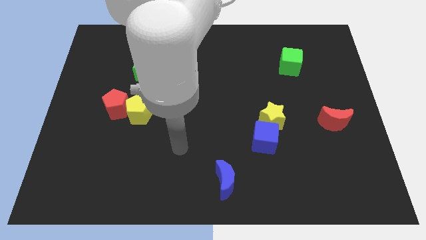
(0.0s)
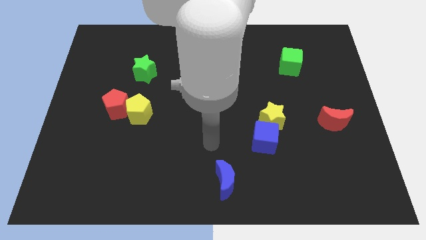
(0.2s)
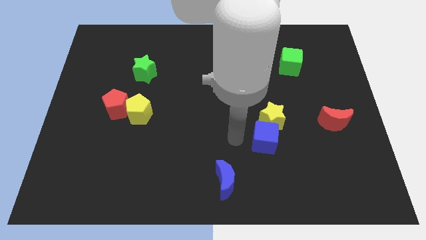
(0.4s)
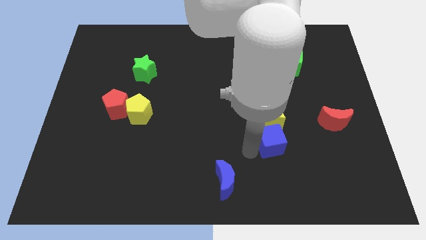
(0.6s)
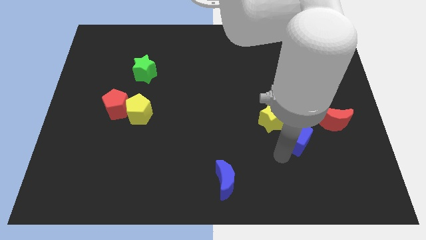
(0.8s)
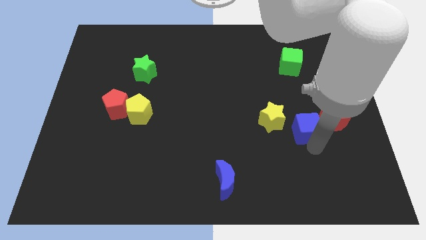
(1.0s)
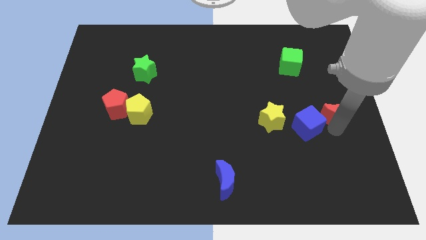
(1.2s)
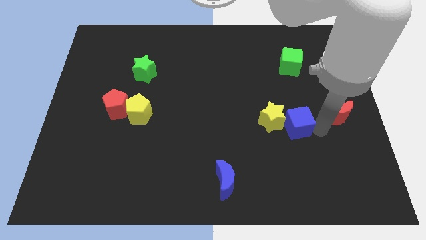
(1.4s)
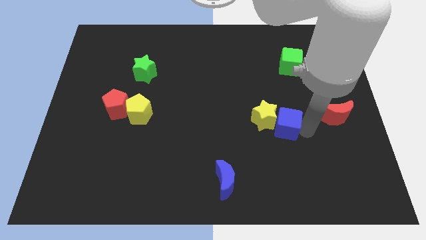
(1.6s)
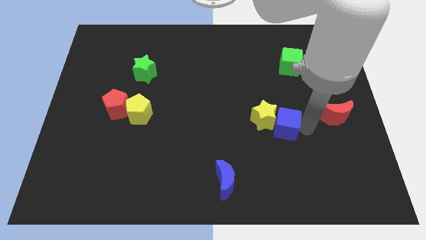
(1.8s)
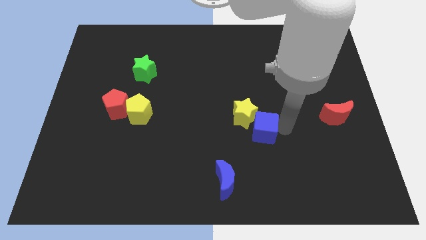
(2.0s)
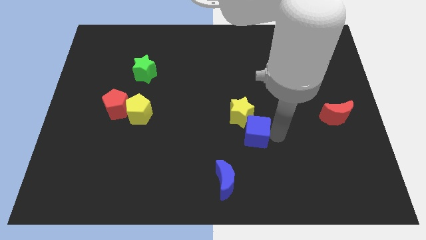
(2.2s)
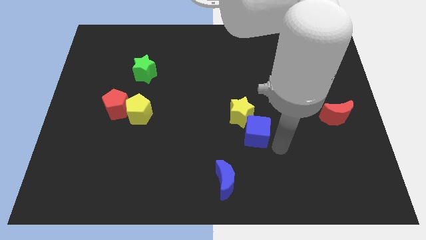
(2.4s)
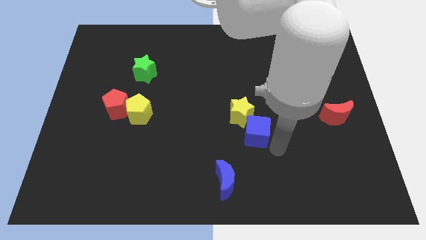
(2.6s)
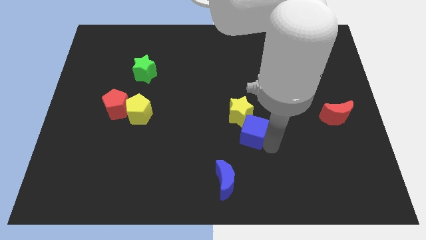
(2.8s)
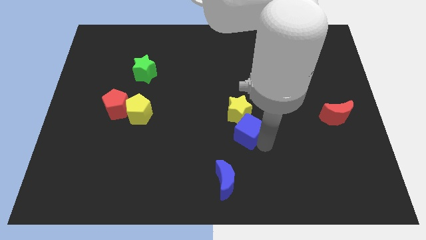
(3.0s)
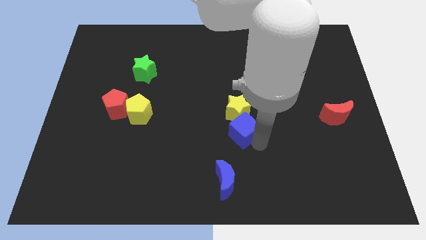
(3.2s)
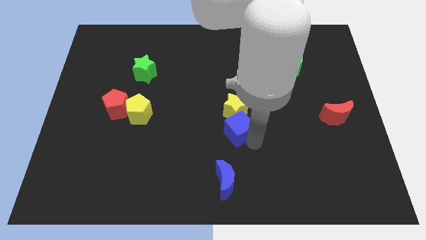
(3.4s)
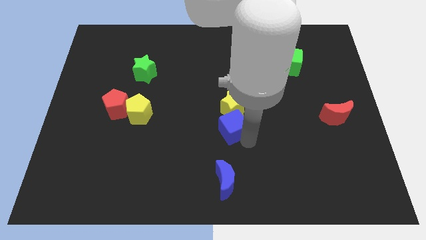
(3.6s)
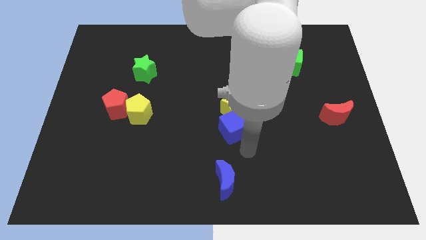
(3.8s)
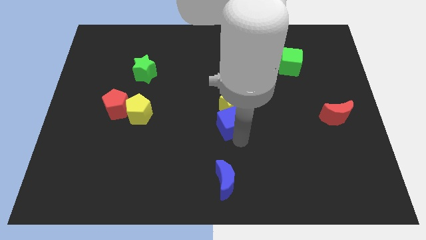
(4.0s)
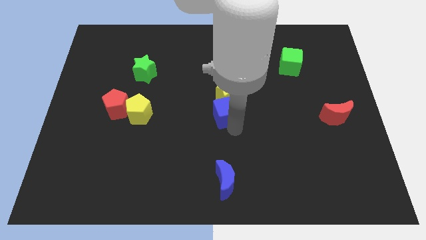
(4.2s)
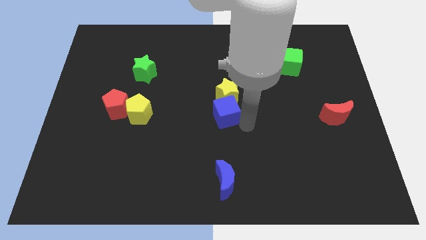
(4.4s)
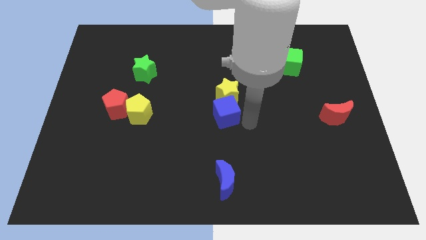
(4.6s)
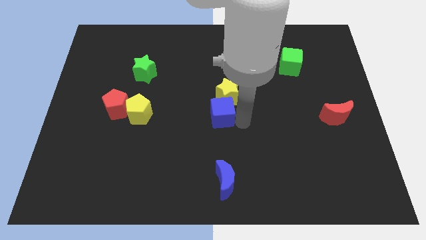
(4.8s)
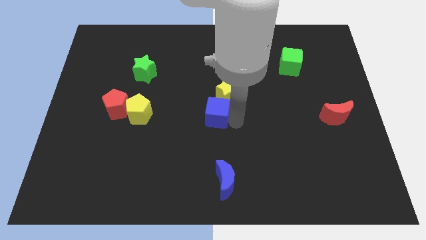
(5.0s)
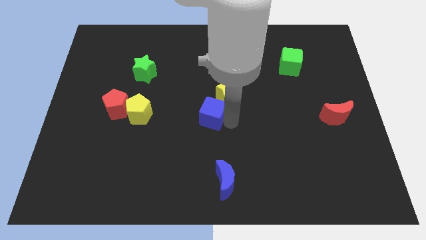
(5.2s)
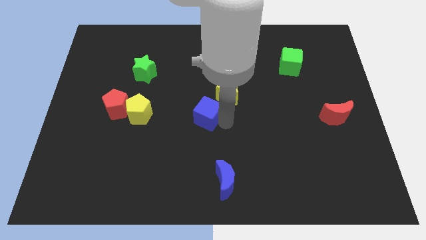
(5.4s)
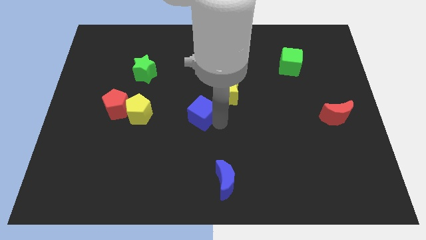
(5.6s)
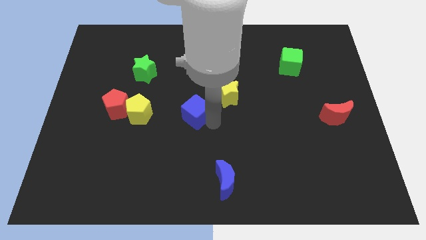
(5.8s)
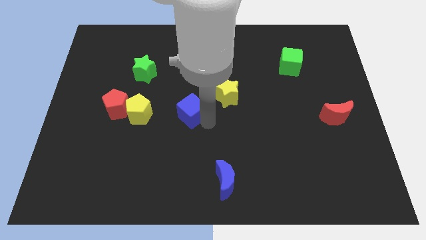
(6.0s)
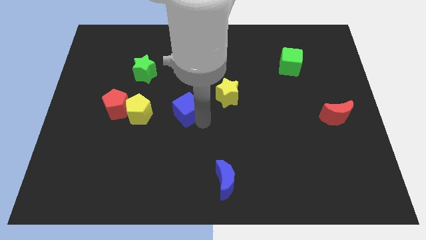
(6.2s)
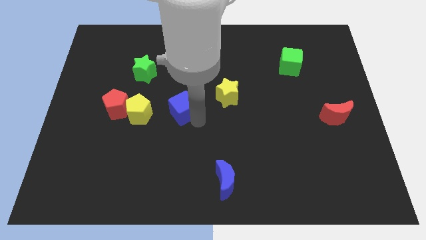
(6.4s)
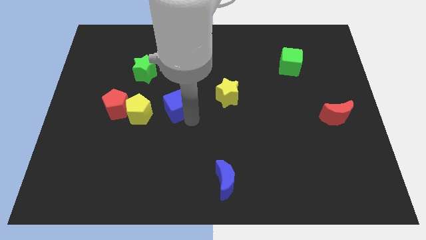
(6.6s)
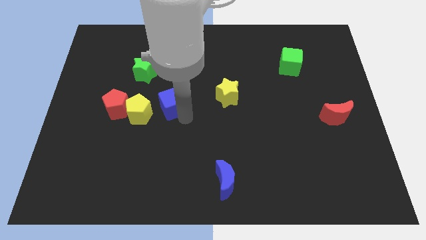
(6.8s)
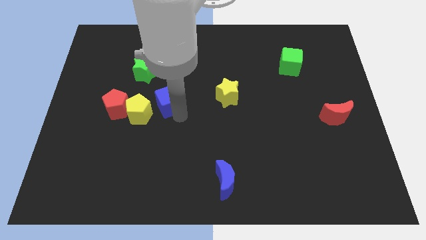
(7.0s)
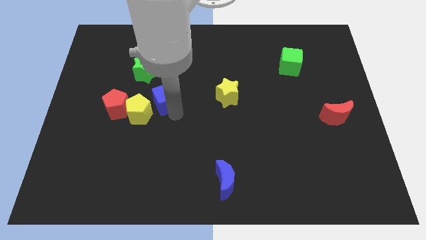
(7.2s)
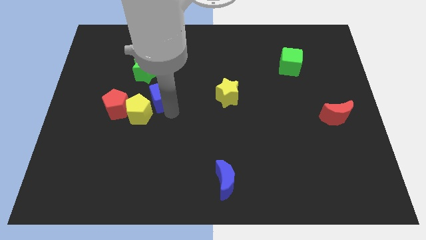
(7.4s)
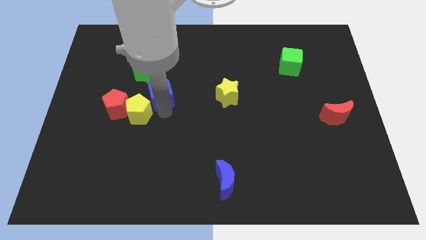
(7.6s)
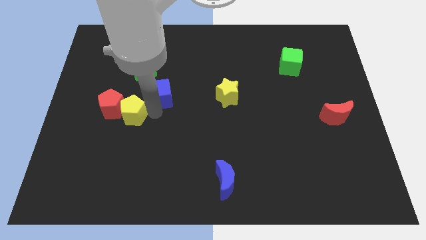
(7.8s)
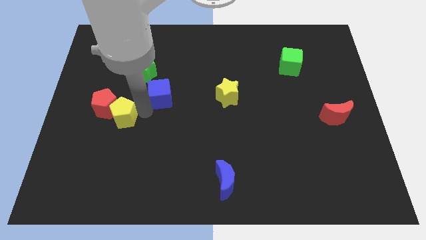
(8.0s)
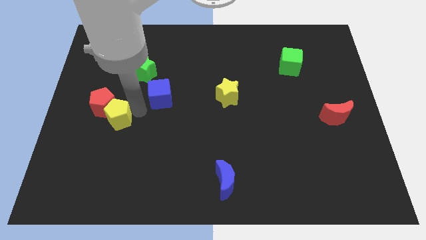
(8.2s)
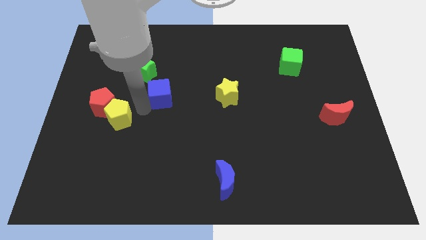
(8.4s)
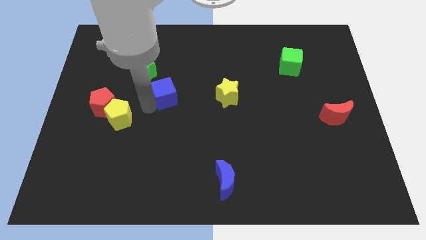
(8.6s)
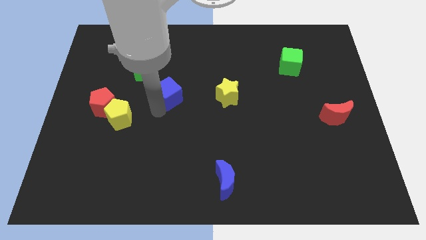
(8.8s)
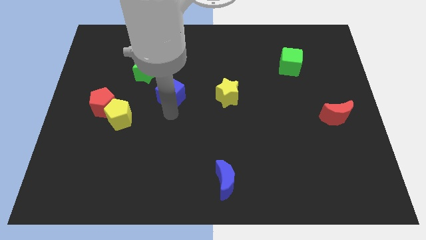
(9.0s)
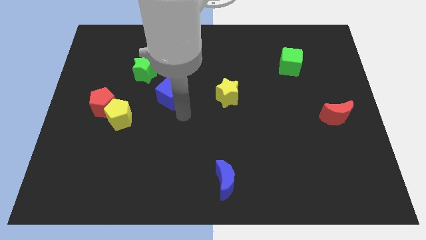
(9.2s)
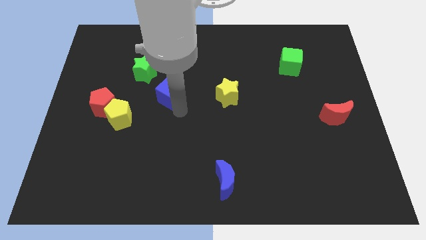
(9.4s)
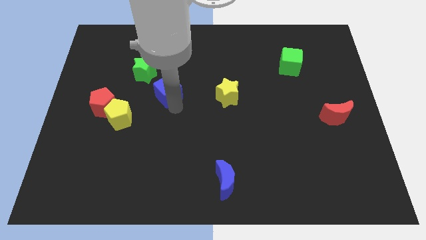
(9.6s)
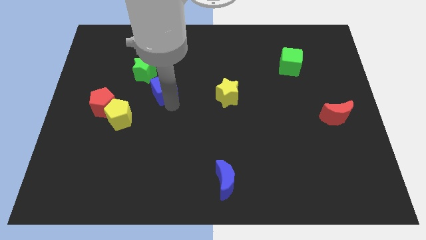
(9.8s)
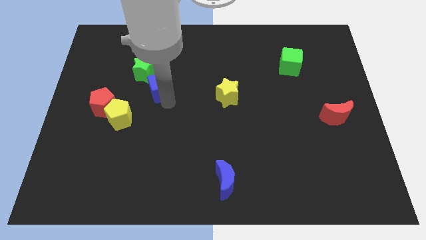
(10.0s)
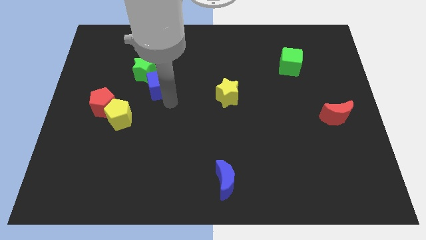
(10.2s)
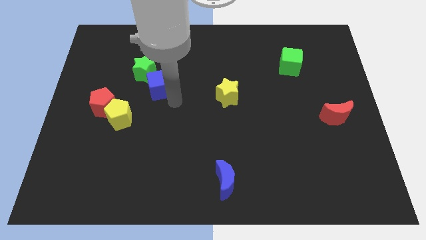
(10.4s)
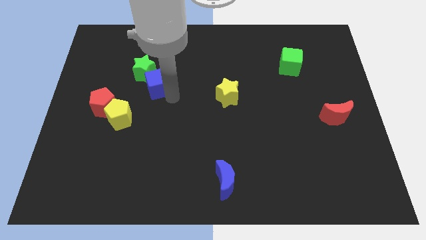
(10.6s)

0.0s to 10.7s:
slide the blue cube towards the green star
